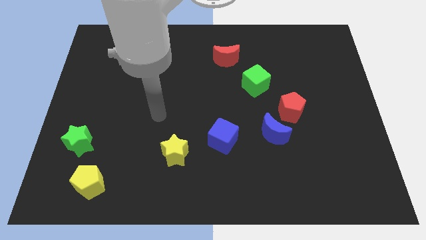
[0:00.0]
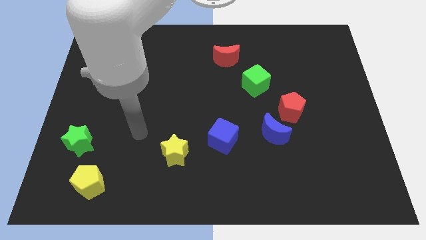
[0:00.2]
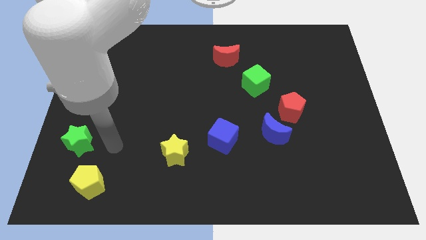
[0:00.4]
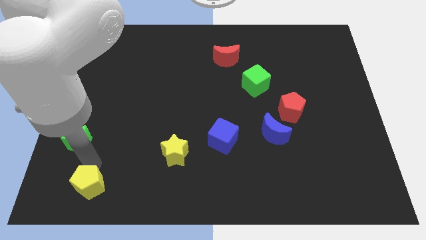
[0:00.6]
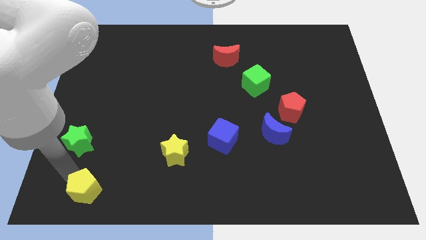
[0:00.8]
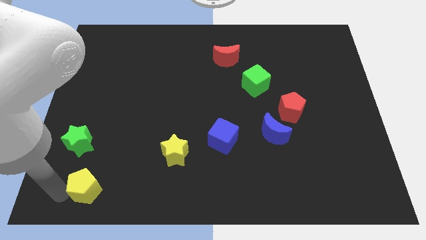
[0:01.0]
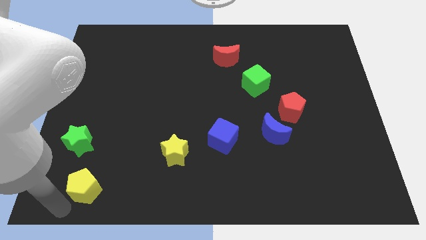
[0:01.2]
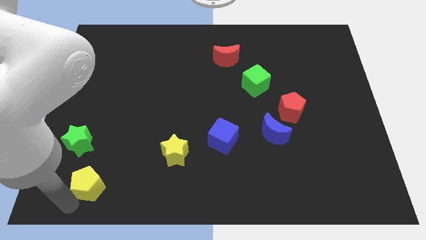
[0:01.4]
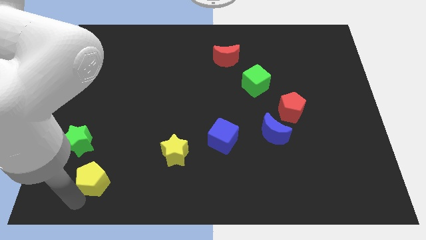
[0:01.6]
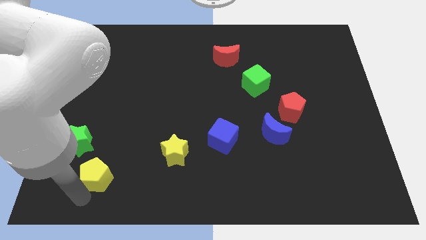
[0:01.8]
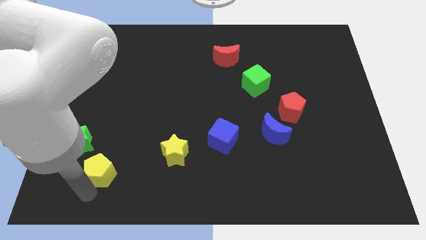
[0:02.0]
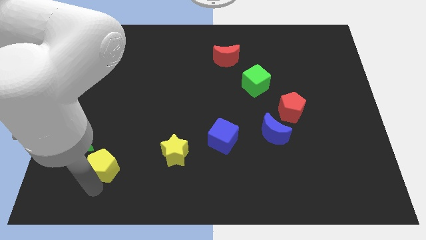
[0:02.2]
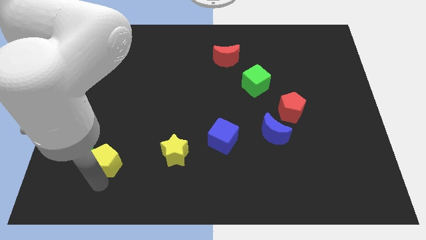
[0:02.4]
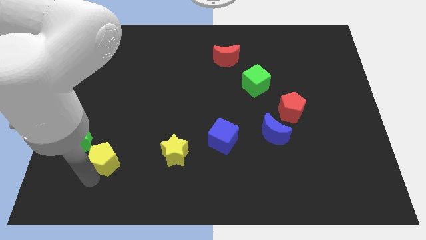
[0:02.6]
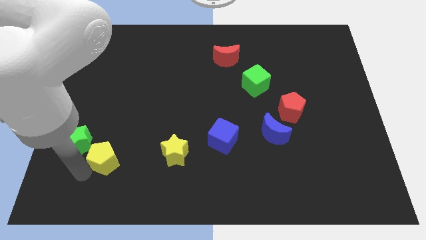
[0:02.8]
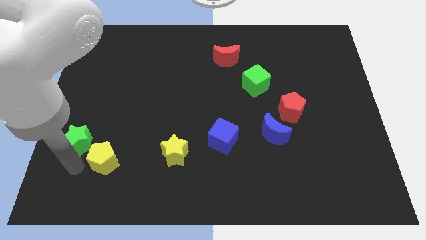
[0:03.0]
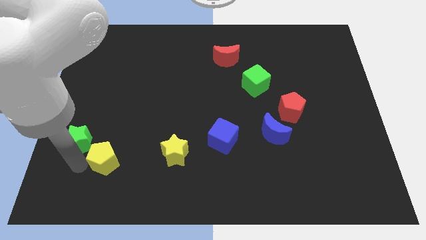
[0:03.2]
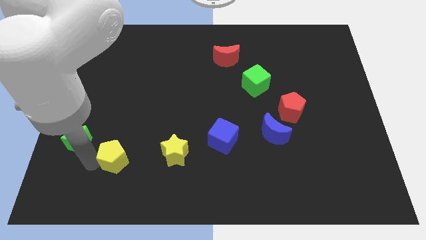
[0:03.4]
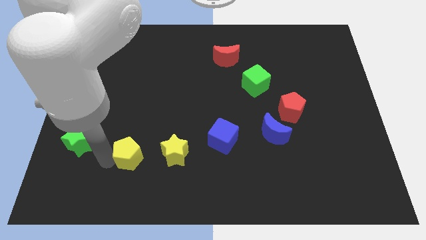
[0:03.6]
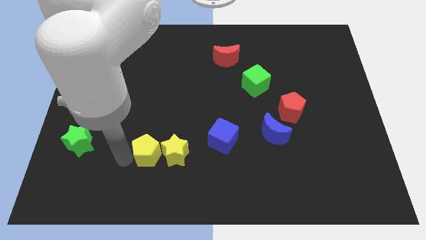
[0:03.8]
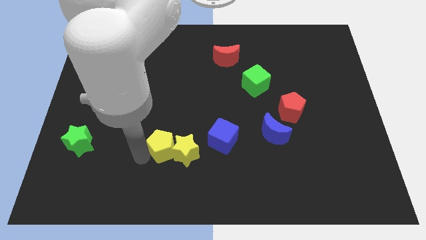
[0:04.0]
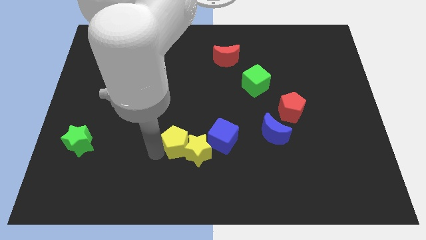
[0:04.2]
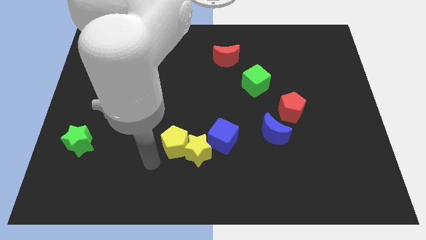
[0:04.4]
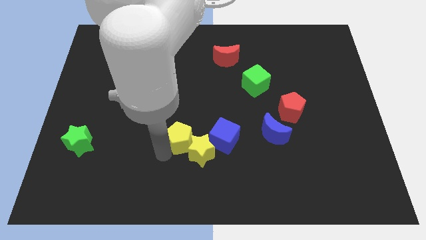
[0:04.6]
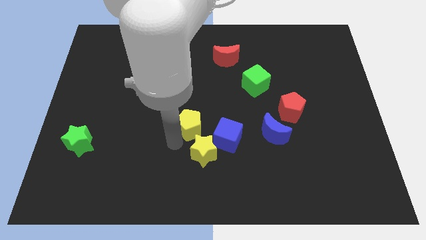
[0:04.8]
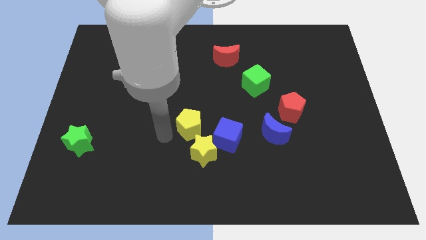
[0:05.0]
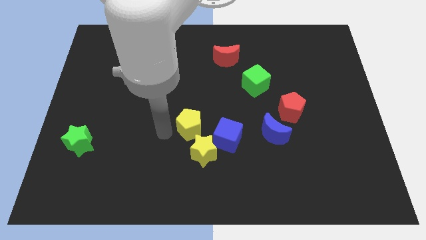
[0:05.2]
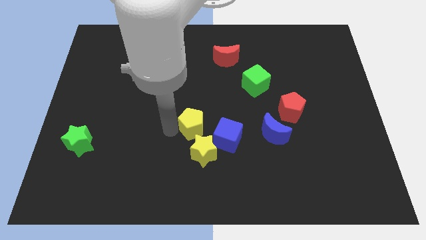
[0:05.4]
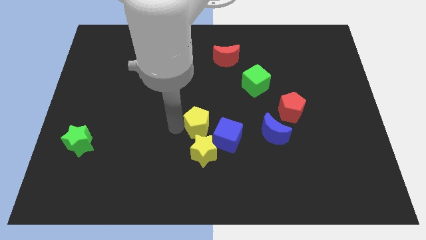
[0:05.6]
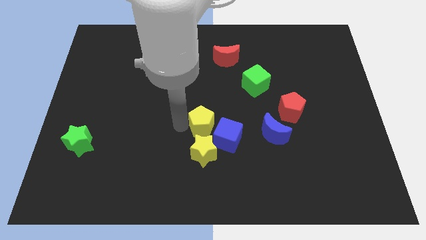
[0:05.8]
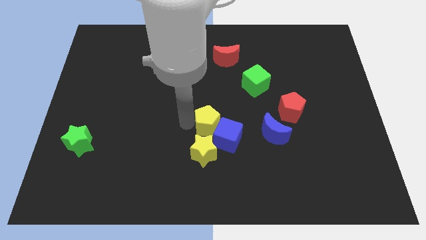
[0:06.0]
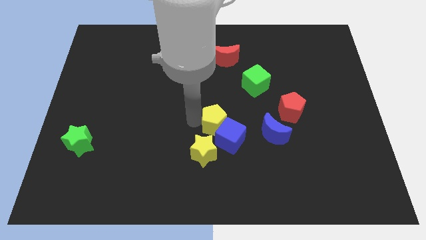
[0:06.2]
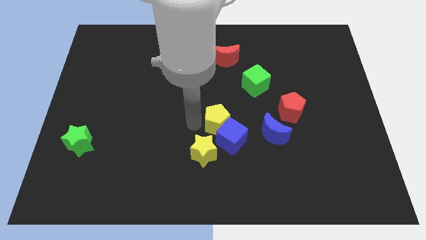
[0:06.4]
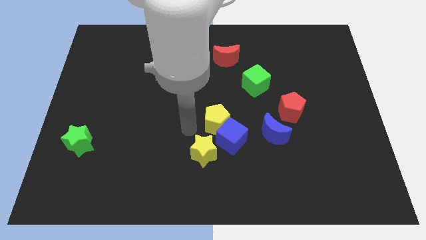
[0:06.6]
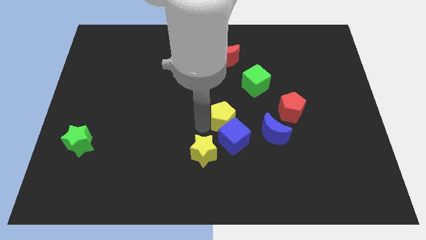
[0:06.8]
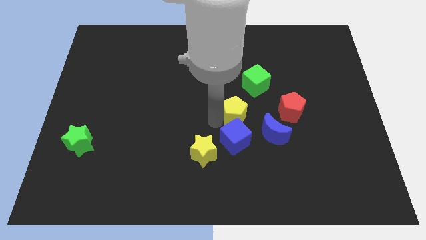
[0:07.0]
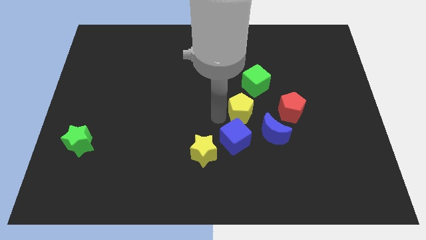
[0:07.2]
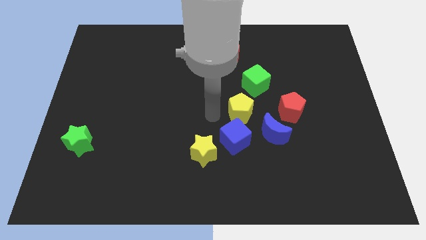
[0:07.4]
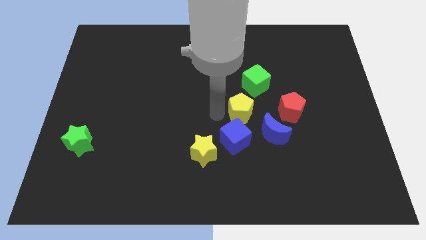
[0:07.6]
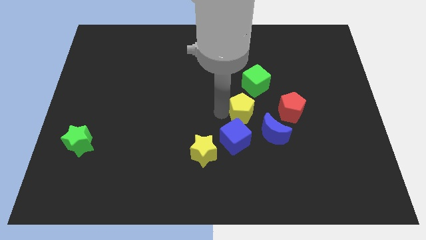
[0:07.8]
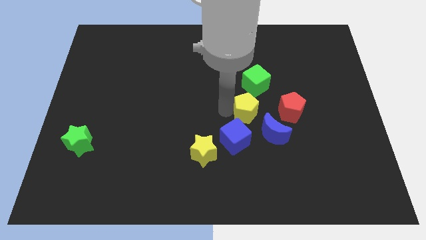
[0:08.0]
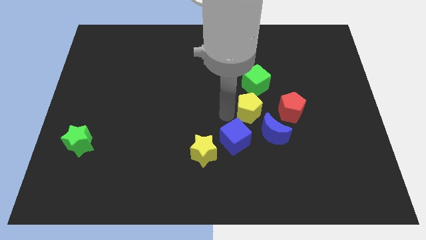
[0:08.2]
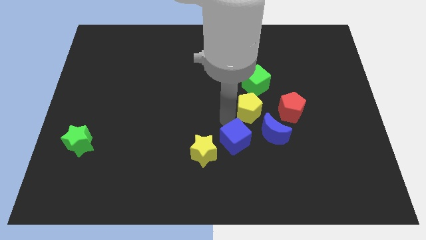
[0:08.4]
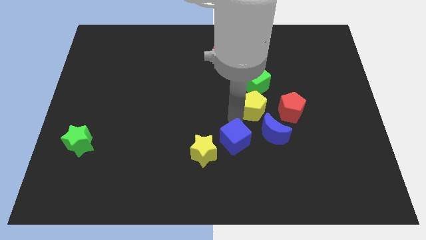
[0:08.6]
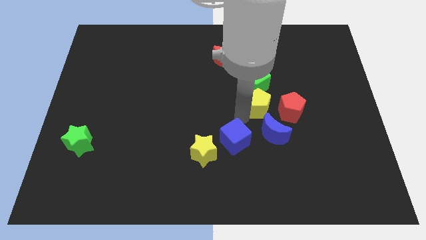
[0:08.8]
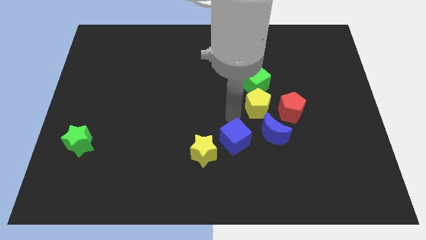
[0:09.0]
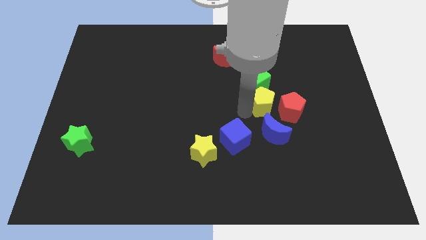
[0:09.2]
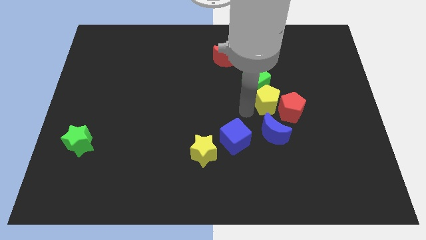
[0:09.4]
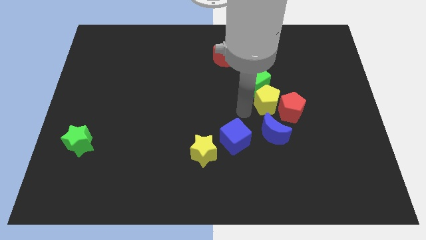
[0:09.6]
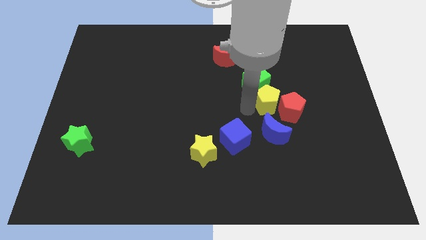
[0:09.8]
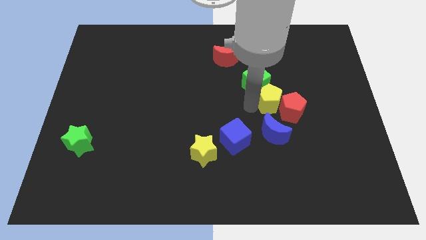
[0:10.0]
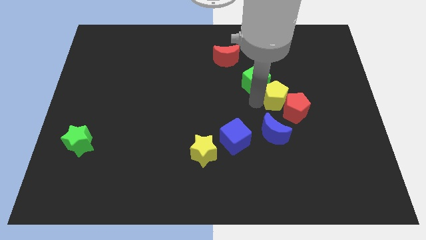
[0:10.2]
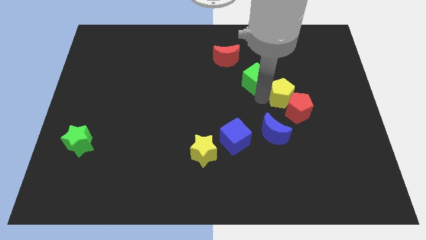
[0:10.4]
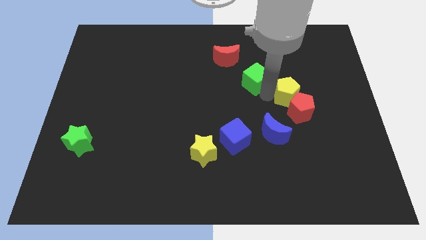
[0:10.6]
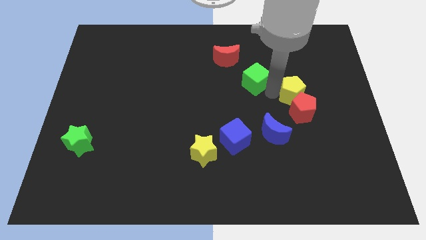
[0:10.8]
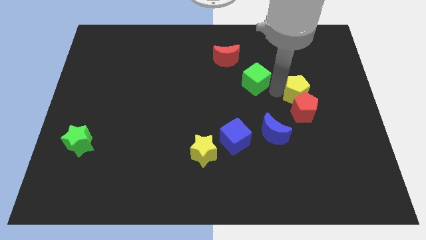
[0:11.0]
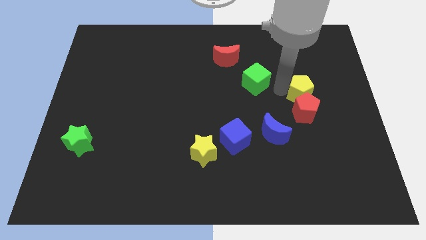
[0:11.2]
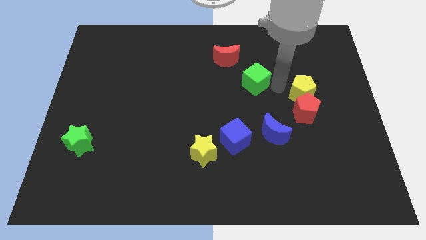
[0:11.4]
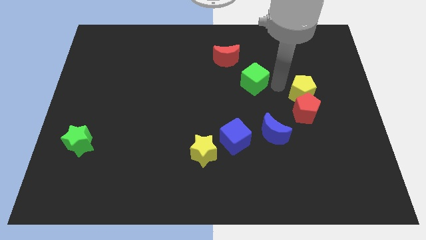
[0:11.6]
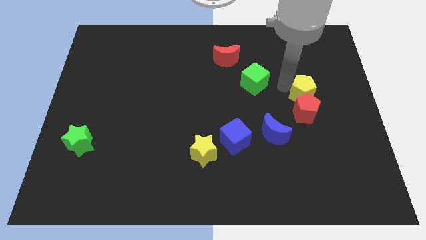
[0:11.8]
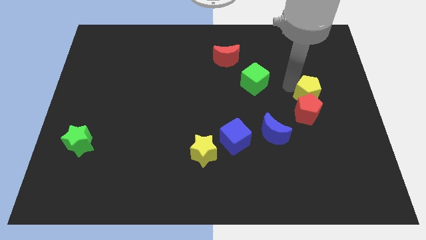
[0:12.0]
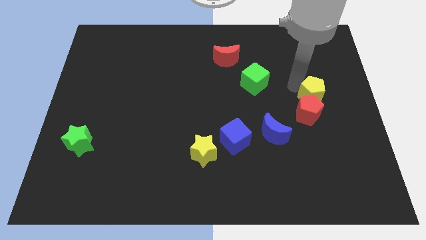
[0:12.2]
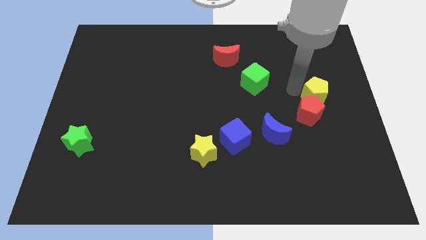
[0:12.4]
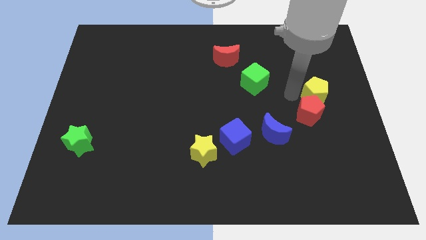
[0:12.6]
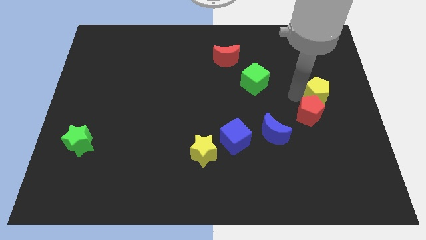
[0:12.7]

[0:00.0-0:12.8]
slide the yellow pentagon to the right side of the board

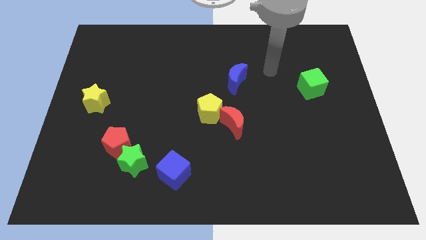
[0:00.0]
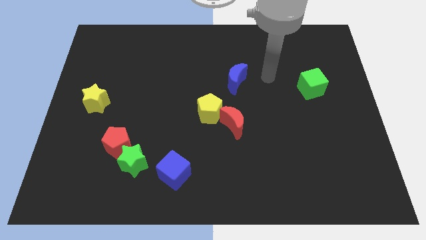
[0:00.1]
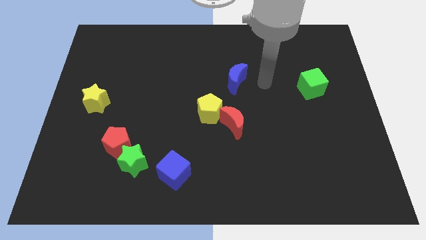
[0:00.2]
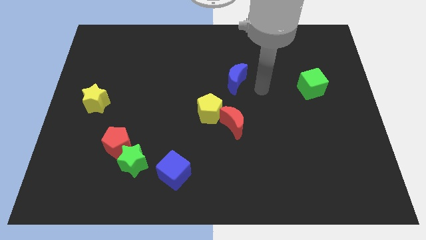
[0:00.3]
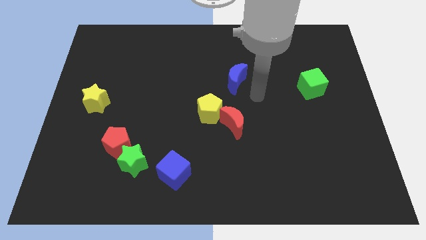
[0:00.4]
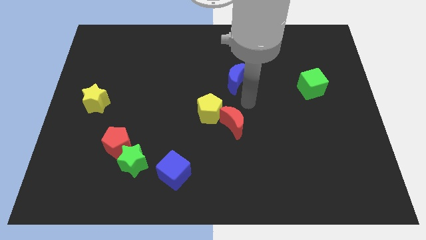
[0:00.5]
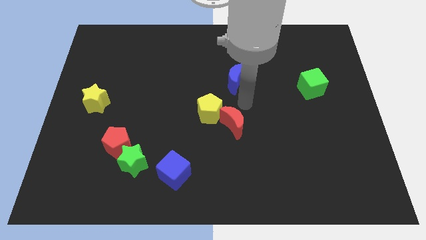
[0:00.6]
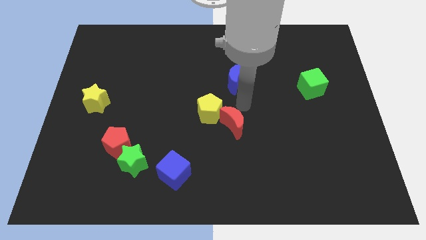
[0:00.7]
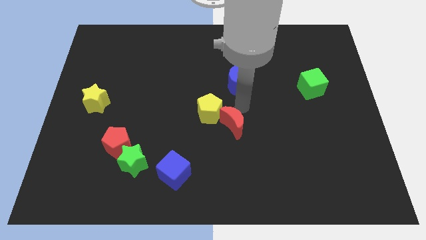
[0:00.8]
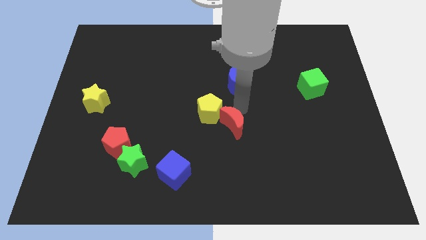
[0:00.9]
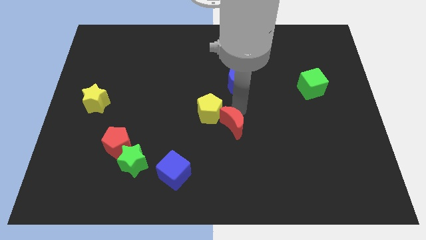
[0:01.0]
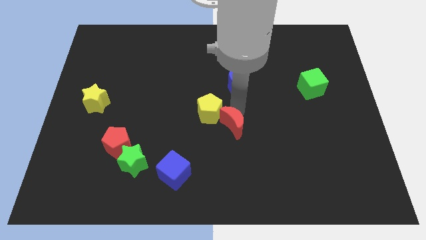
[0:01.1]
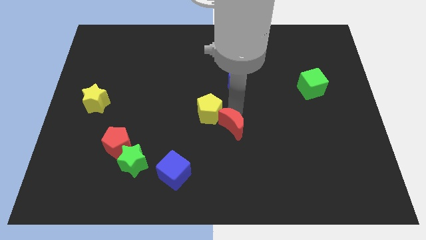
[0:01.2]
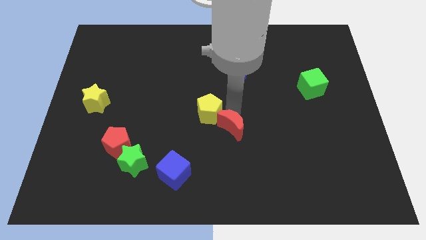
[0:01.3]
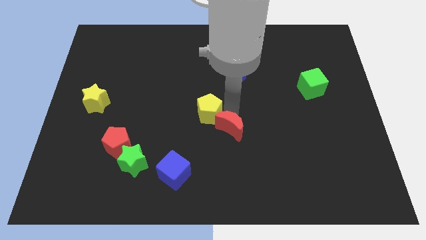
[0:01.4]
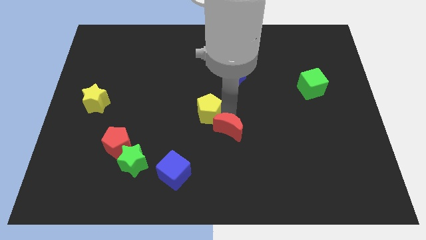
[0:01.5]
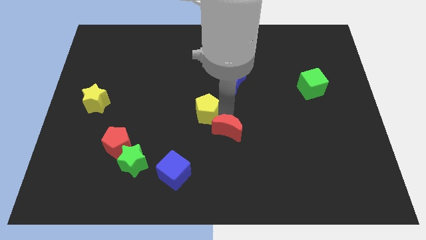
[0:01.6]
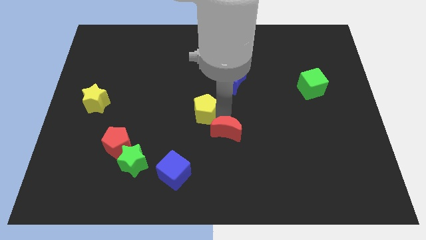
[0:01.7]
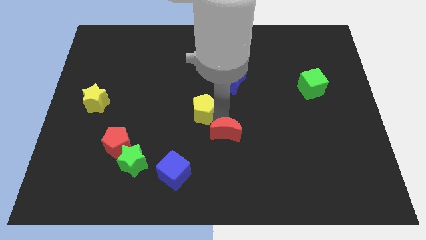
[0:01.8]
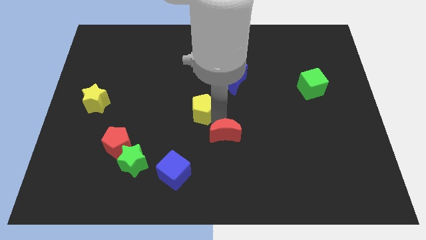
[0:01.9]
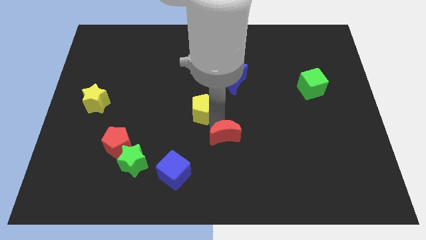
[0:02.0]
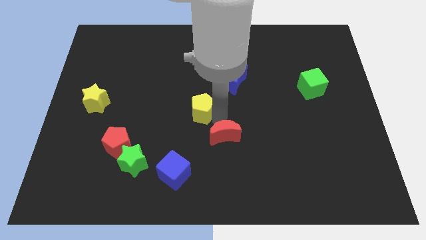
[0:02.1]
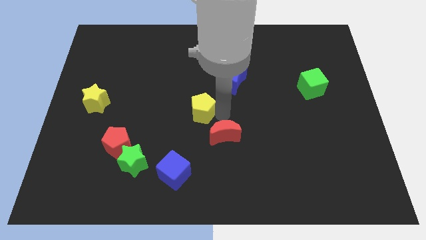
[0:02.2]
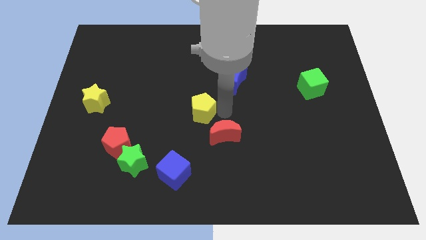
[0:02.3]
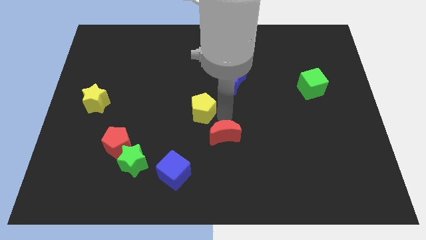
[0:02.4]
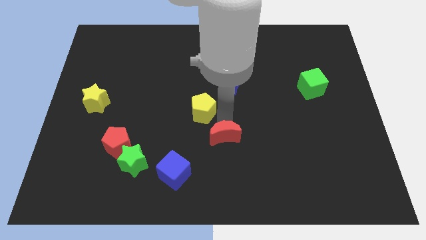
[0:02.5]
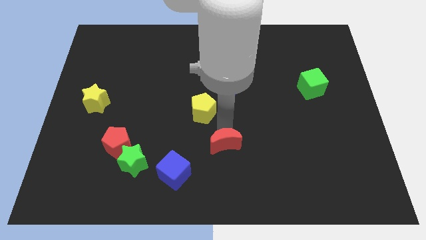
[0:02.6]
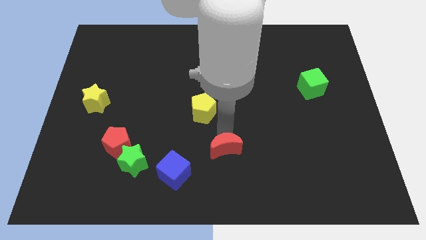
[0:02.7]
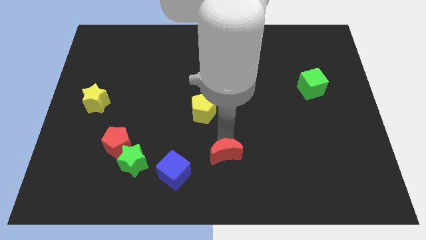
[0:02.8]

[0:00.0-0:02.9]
push the red moon to the bottom
